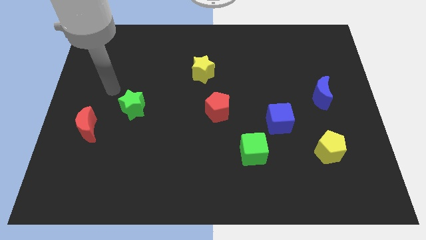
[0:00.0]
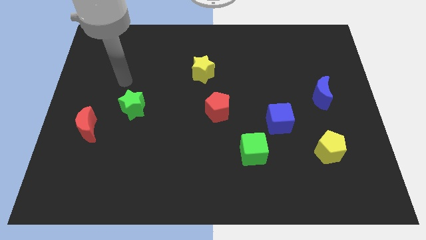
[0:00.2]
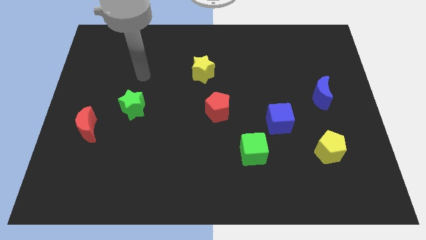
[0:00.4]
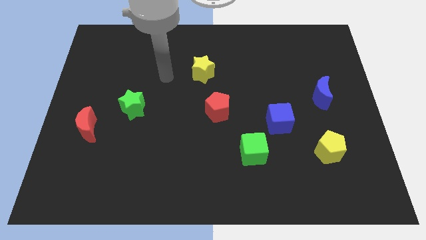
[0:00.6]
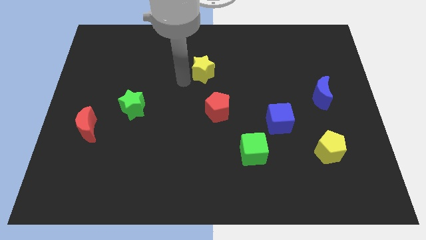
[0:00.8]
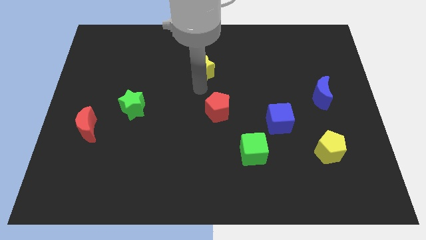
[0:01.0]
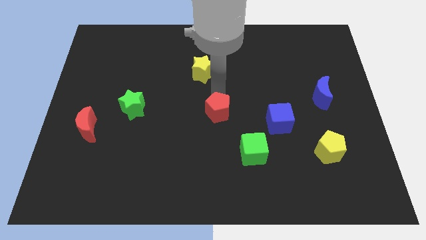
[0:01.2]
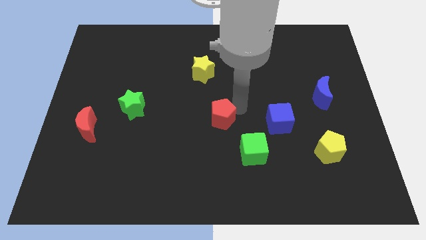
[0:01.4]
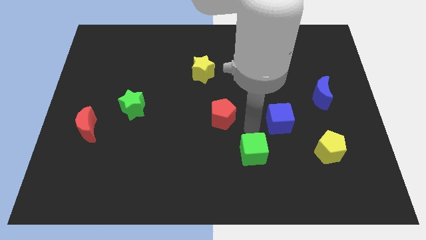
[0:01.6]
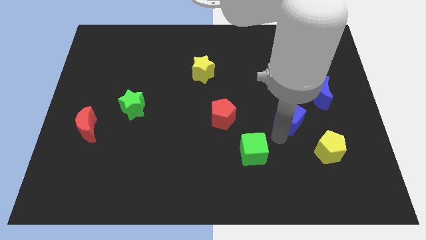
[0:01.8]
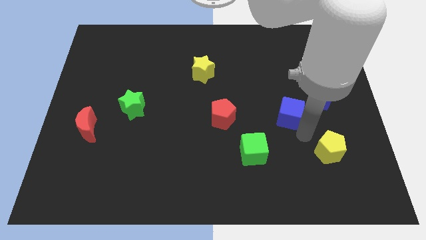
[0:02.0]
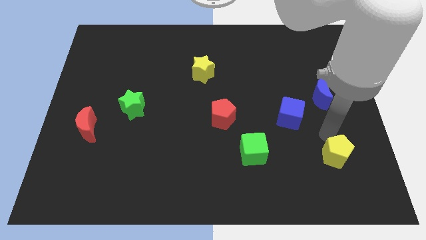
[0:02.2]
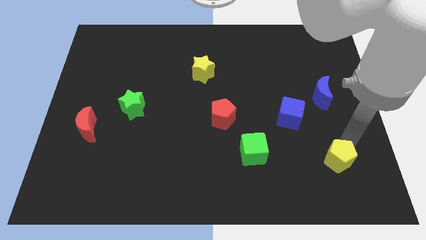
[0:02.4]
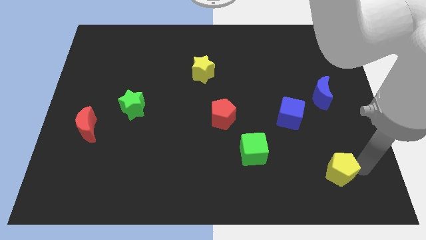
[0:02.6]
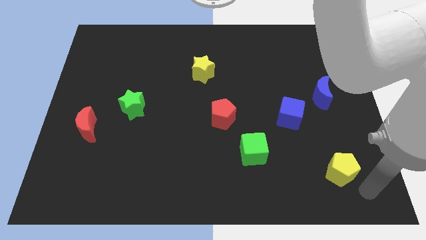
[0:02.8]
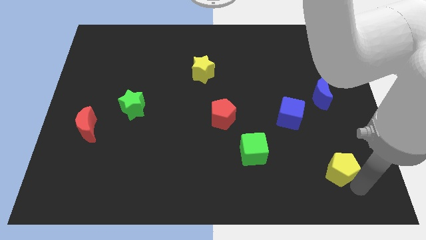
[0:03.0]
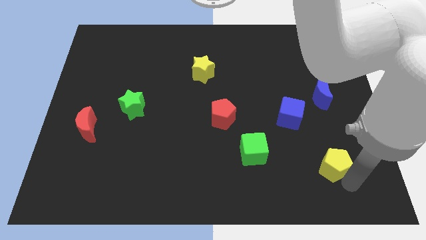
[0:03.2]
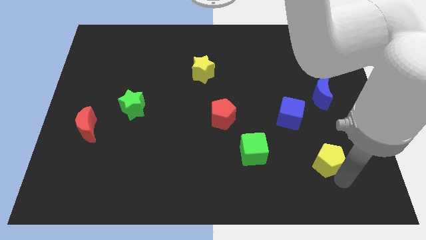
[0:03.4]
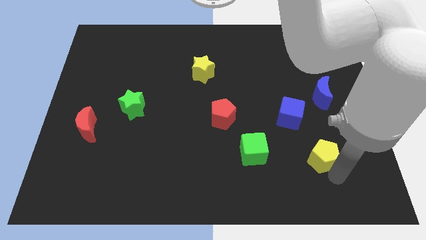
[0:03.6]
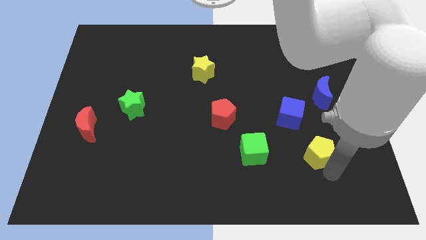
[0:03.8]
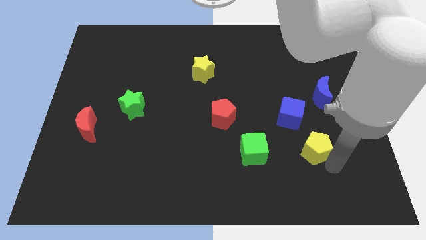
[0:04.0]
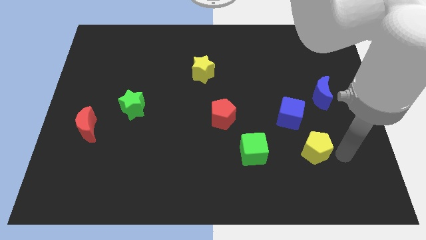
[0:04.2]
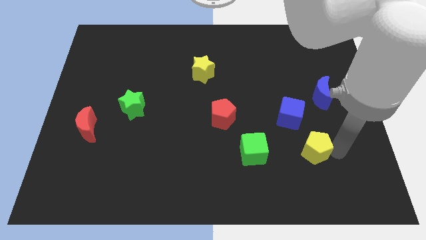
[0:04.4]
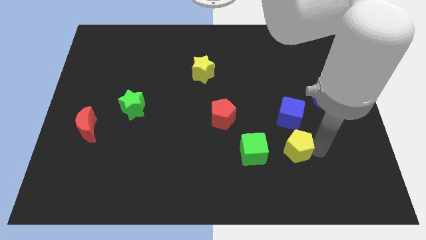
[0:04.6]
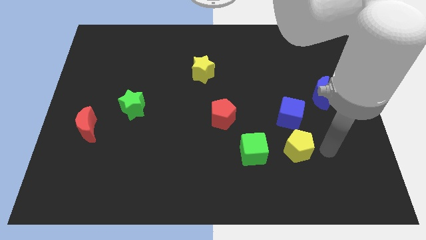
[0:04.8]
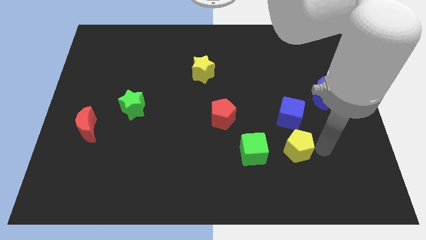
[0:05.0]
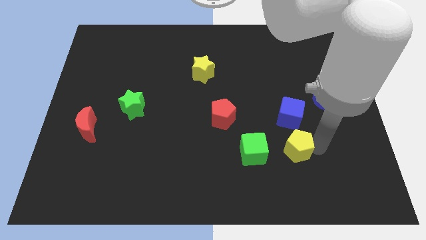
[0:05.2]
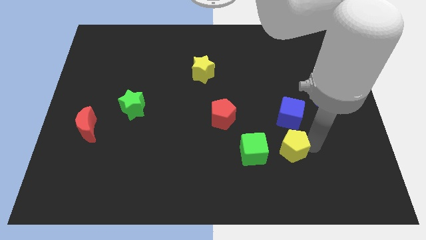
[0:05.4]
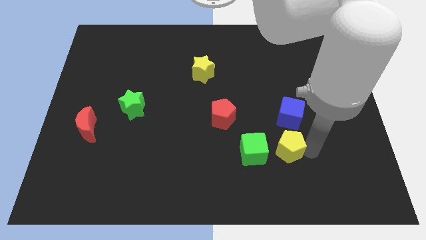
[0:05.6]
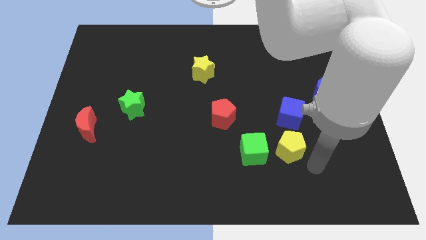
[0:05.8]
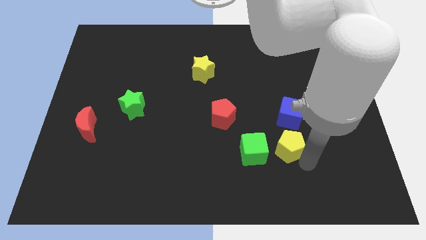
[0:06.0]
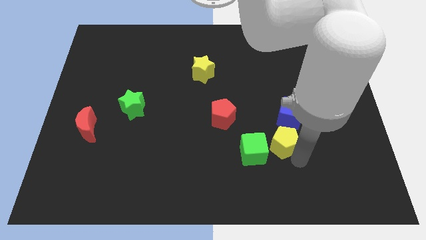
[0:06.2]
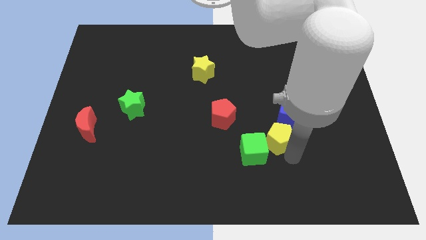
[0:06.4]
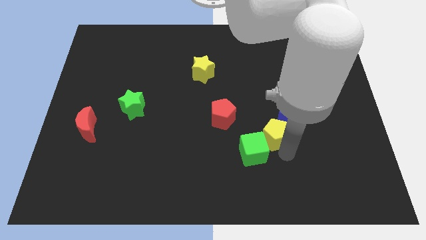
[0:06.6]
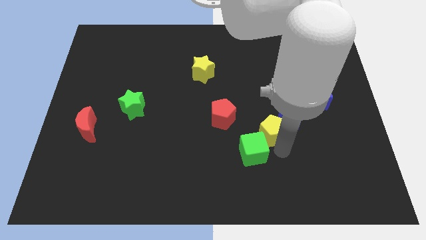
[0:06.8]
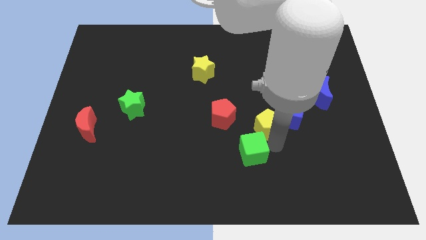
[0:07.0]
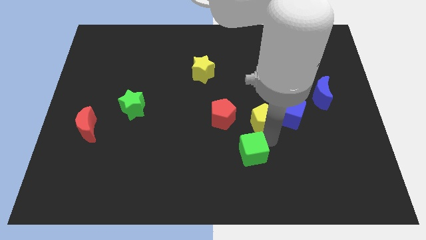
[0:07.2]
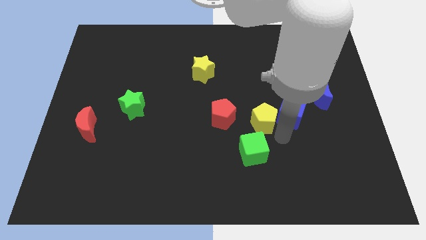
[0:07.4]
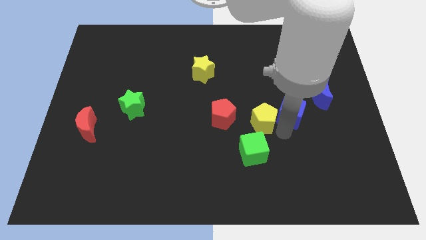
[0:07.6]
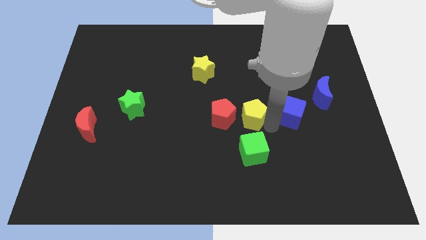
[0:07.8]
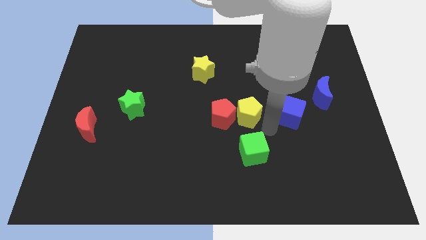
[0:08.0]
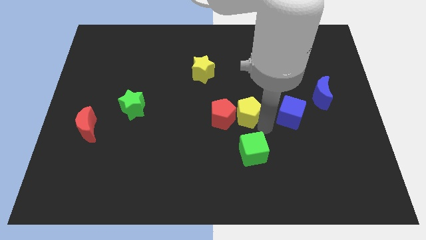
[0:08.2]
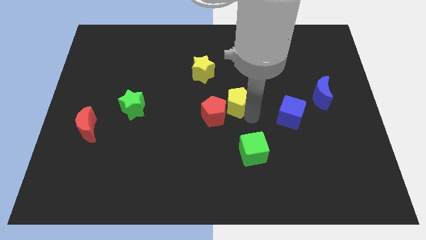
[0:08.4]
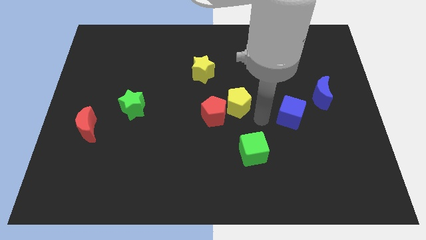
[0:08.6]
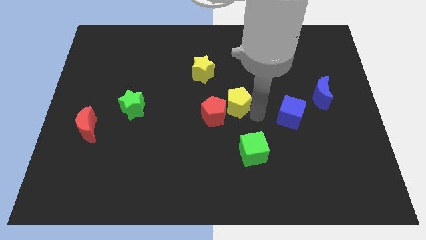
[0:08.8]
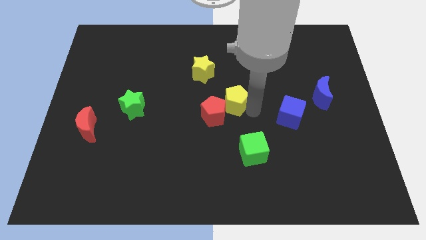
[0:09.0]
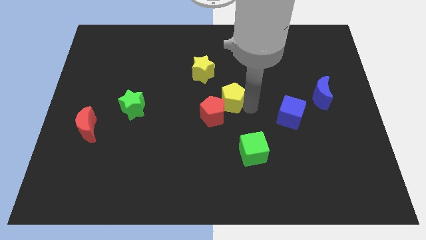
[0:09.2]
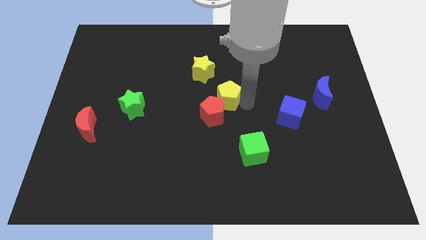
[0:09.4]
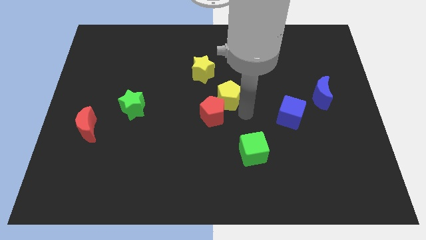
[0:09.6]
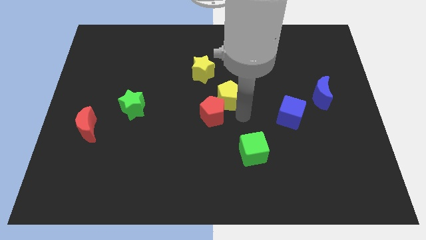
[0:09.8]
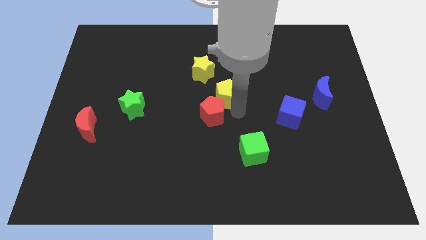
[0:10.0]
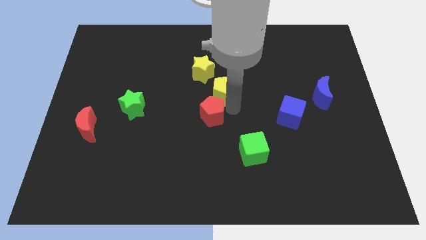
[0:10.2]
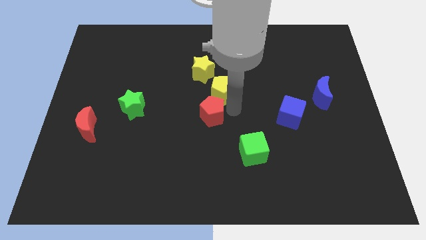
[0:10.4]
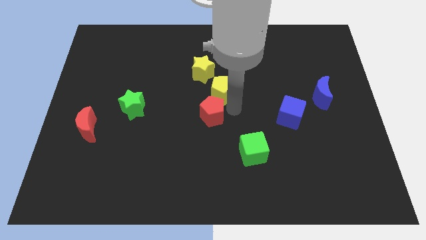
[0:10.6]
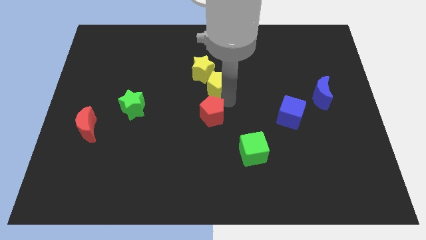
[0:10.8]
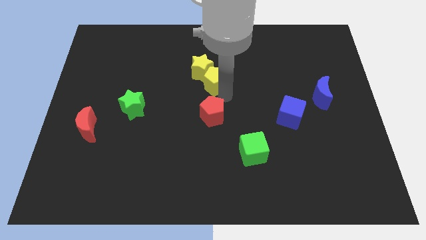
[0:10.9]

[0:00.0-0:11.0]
push the yellow pentagon close to the yellow star

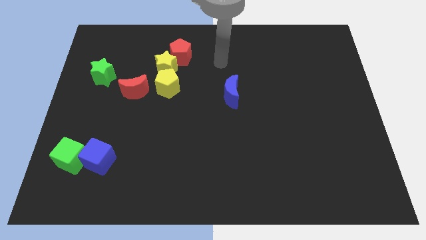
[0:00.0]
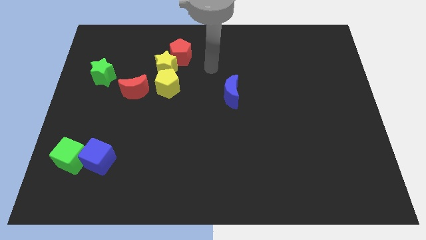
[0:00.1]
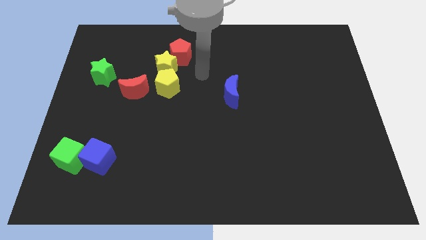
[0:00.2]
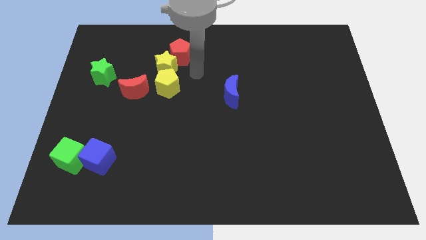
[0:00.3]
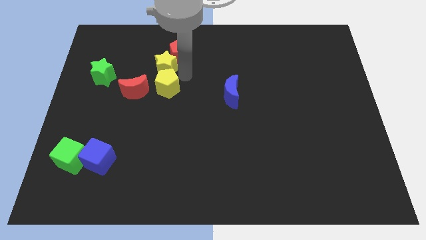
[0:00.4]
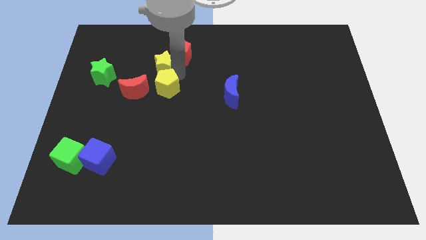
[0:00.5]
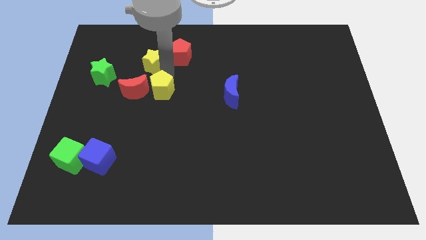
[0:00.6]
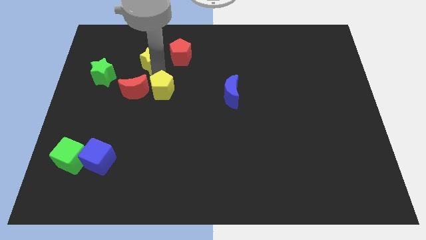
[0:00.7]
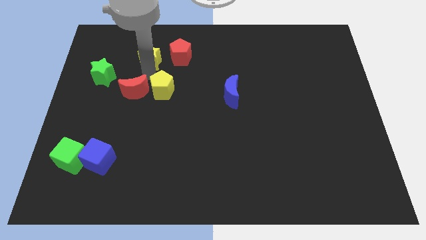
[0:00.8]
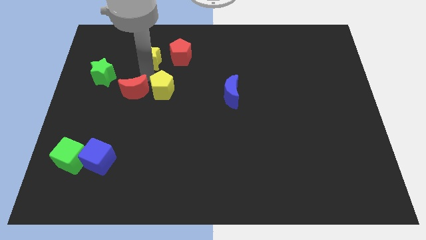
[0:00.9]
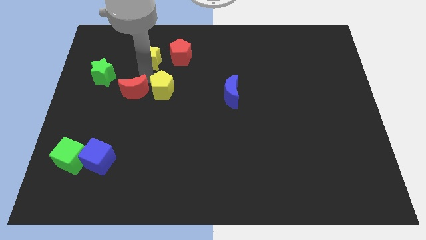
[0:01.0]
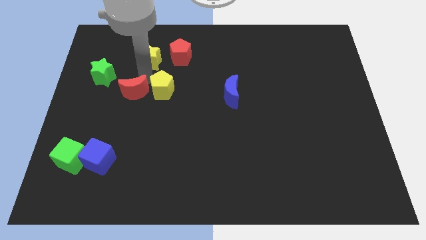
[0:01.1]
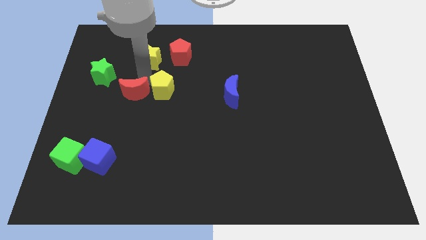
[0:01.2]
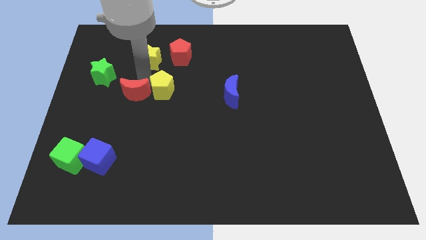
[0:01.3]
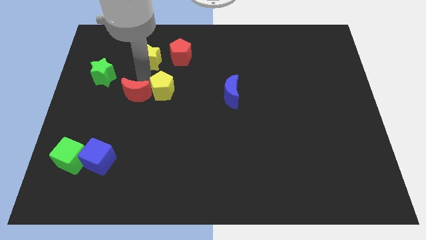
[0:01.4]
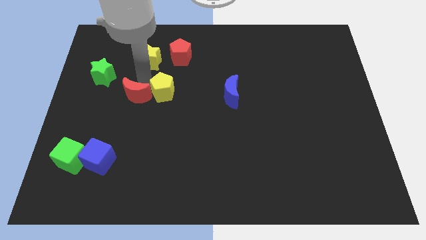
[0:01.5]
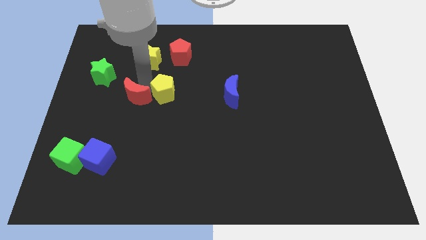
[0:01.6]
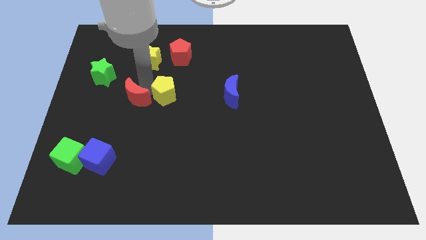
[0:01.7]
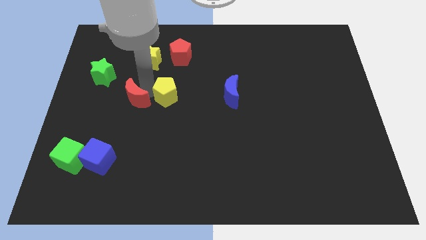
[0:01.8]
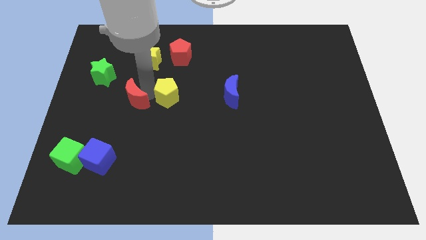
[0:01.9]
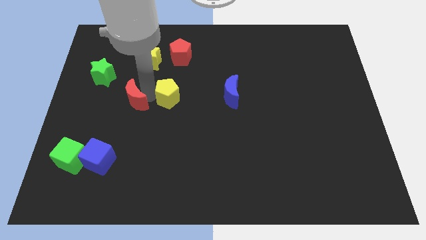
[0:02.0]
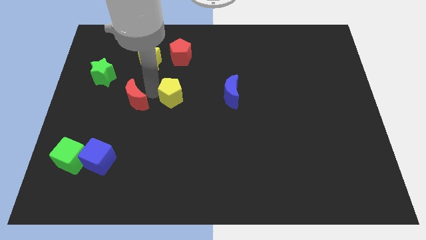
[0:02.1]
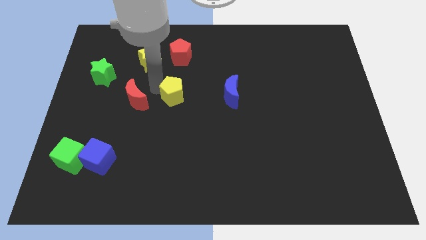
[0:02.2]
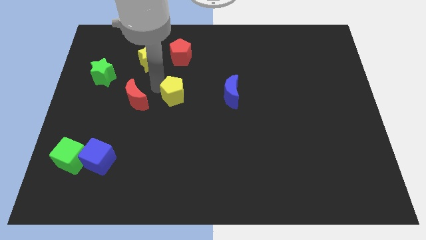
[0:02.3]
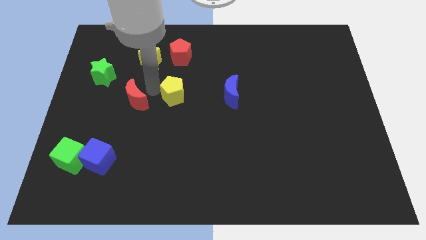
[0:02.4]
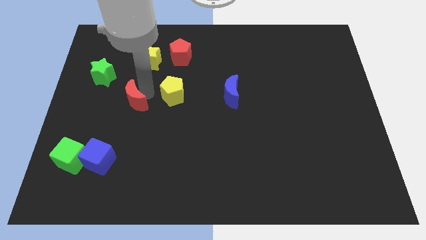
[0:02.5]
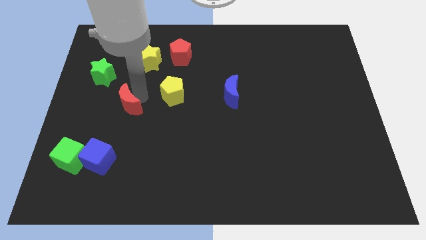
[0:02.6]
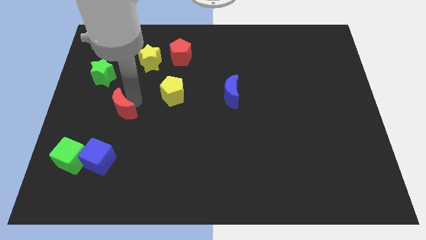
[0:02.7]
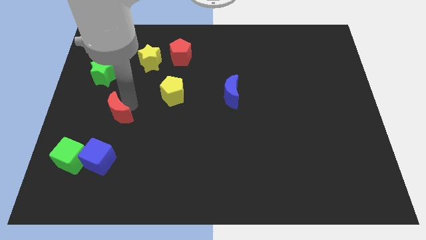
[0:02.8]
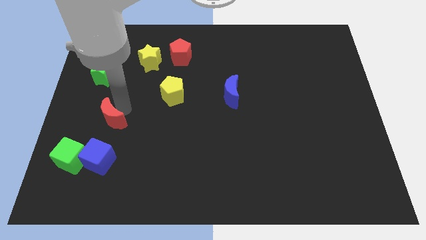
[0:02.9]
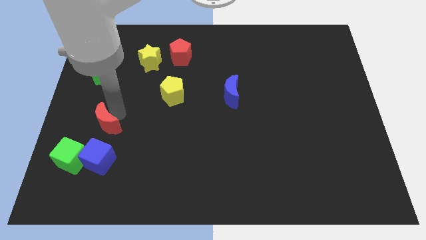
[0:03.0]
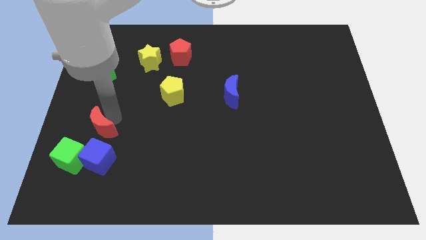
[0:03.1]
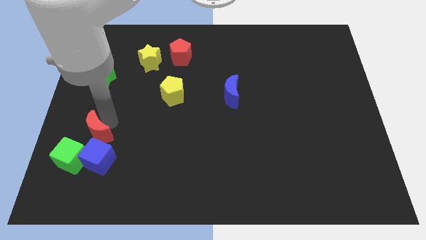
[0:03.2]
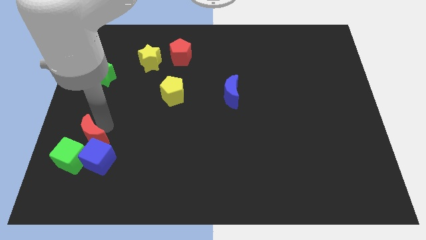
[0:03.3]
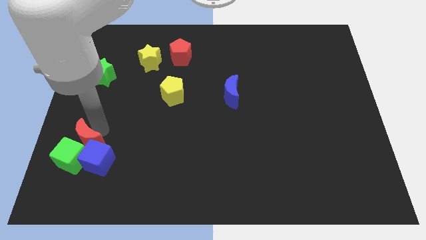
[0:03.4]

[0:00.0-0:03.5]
push the red moon close to the green cube
